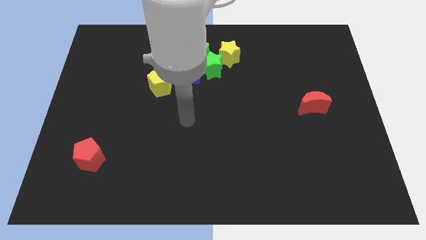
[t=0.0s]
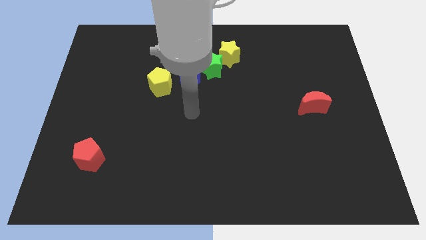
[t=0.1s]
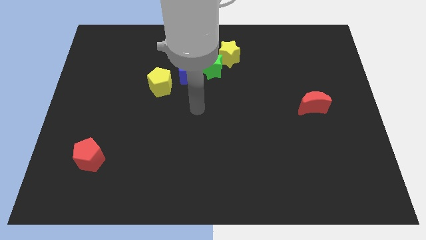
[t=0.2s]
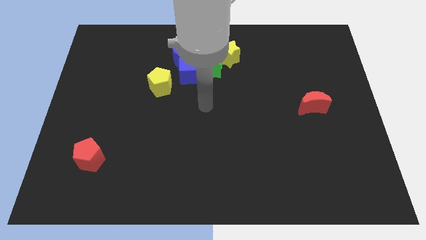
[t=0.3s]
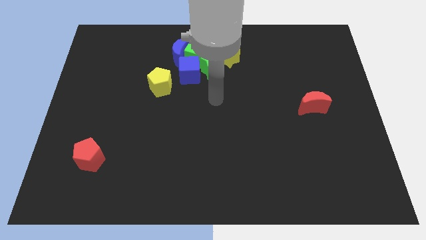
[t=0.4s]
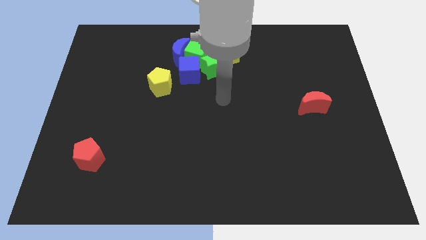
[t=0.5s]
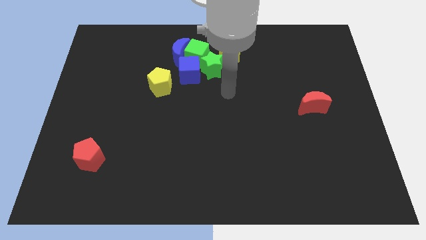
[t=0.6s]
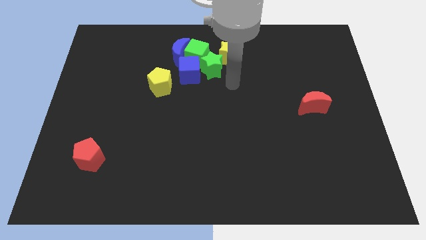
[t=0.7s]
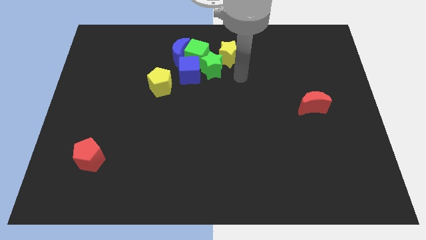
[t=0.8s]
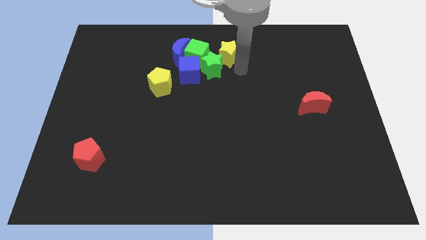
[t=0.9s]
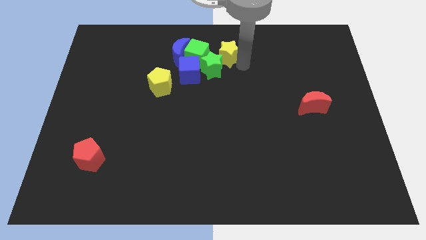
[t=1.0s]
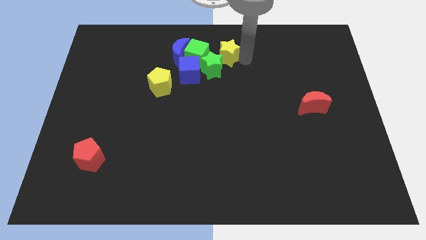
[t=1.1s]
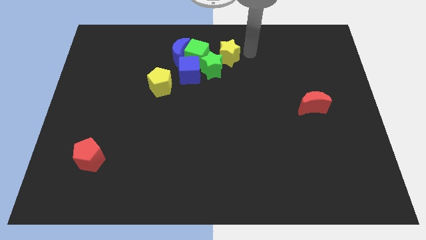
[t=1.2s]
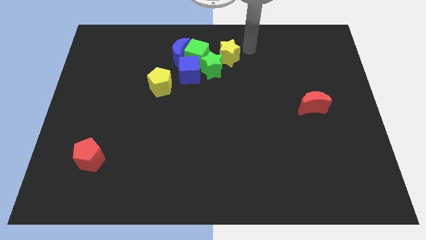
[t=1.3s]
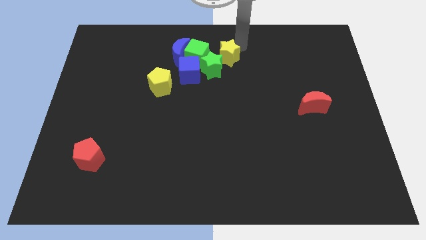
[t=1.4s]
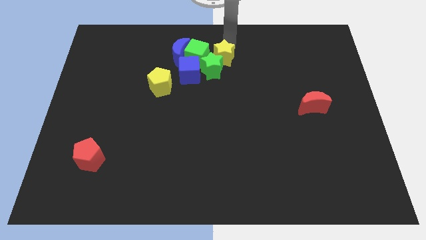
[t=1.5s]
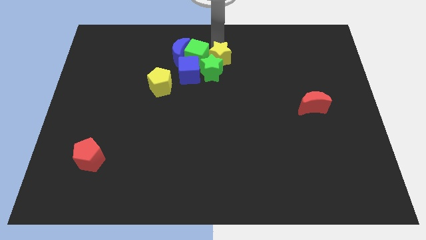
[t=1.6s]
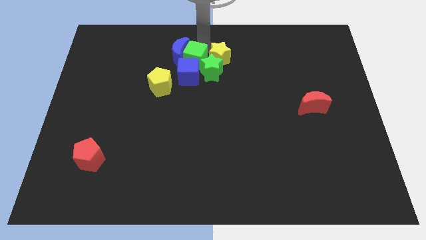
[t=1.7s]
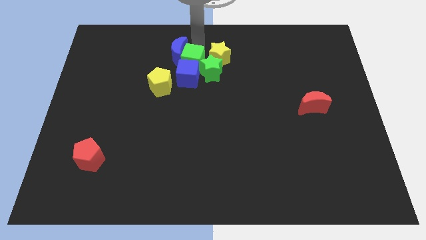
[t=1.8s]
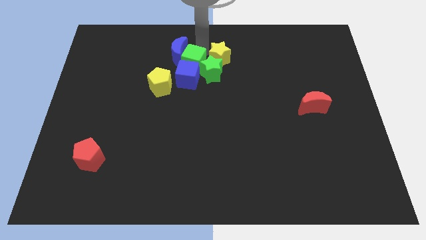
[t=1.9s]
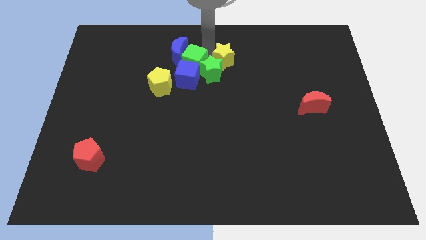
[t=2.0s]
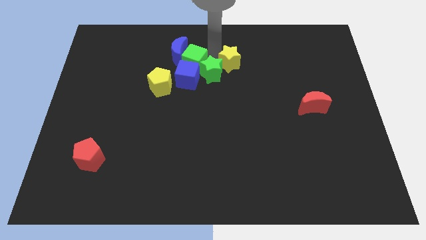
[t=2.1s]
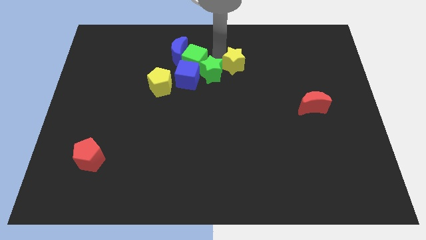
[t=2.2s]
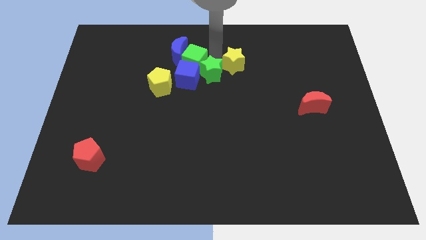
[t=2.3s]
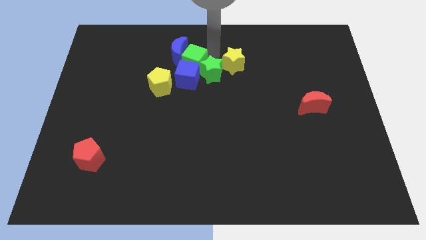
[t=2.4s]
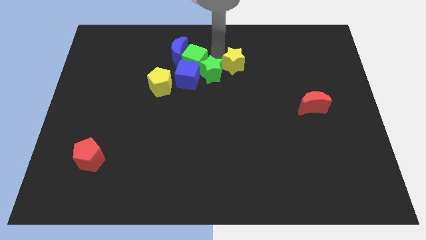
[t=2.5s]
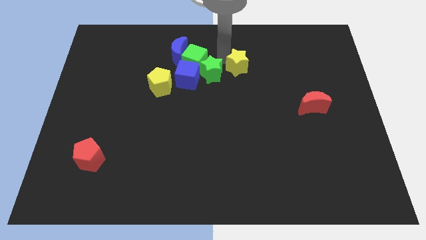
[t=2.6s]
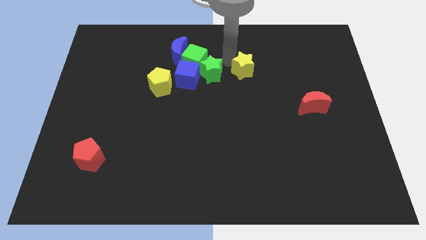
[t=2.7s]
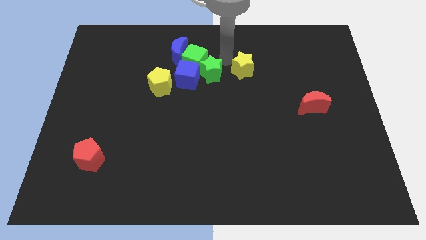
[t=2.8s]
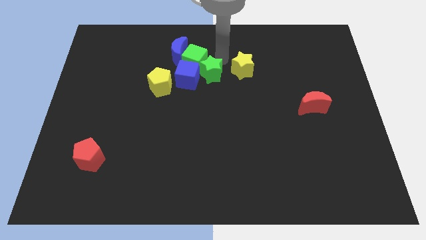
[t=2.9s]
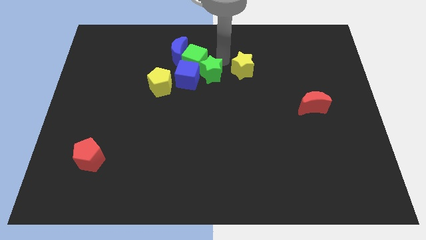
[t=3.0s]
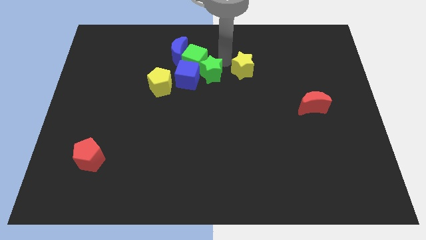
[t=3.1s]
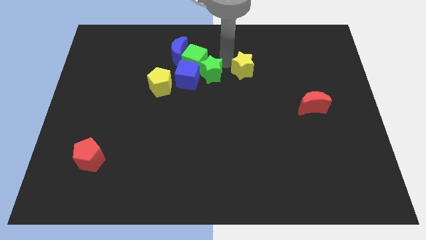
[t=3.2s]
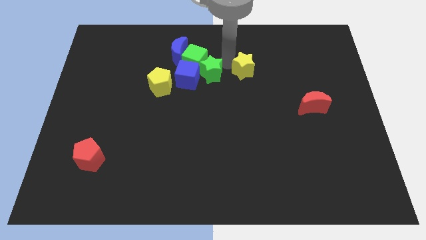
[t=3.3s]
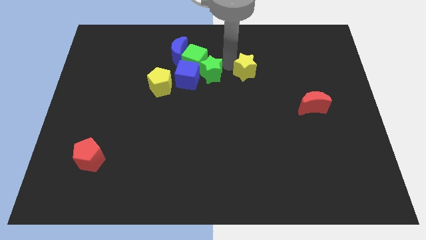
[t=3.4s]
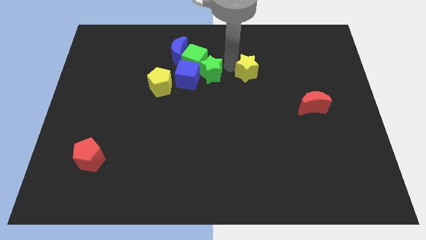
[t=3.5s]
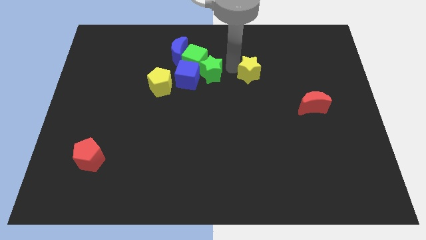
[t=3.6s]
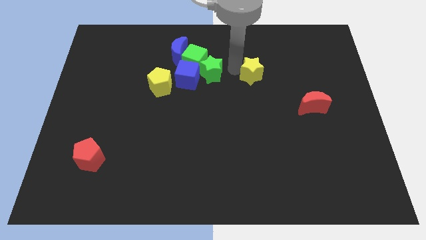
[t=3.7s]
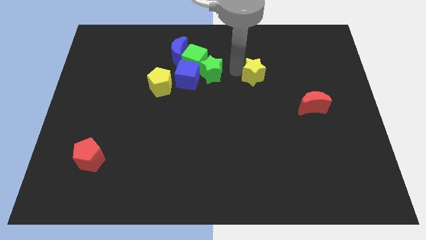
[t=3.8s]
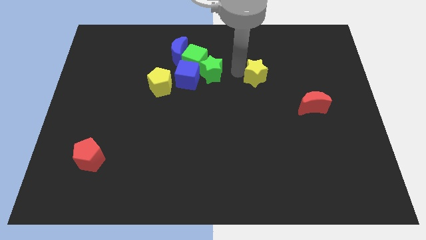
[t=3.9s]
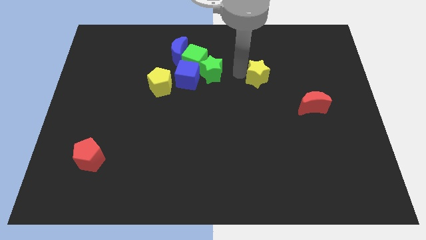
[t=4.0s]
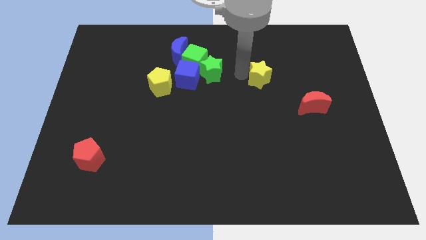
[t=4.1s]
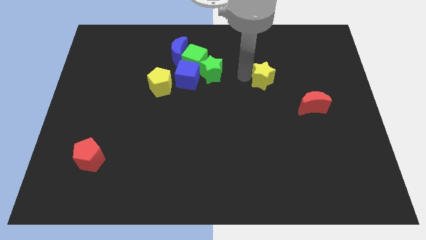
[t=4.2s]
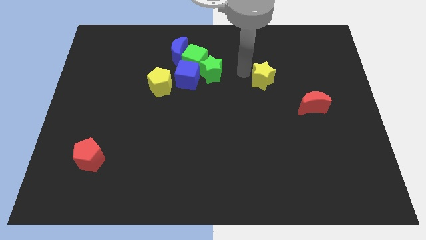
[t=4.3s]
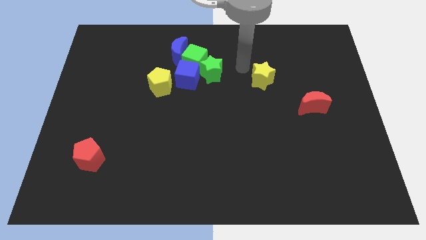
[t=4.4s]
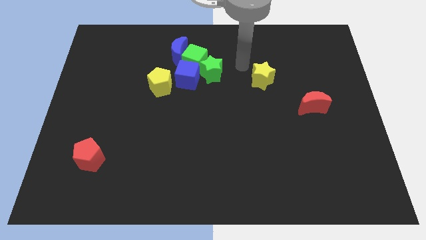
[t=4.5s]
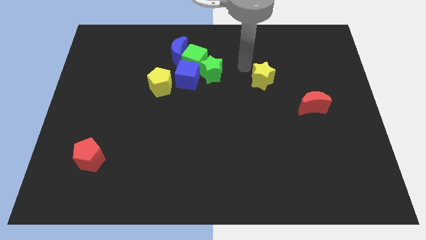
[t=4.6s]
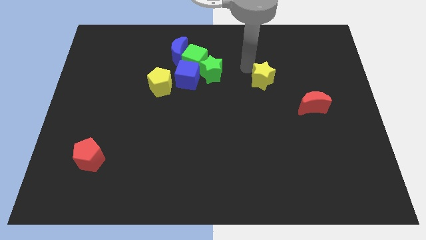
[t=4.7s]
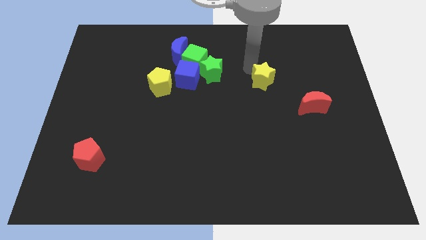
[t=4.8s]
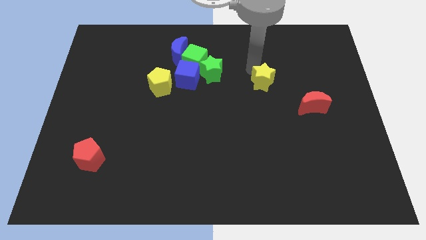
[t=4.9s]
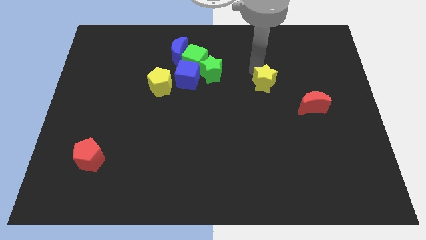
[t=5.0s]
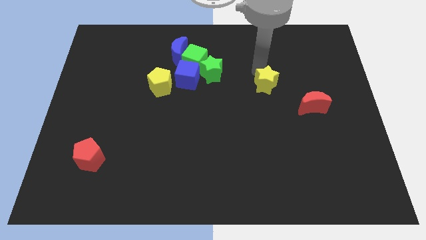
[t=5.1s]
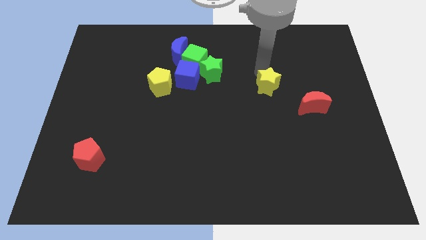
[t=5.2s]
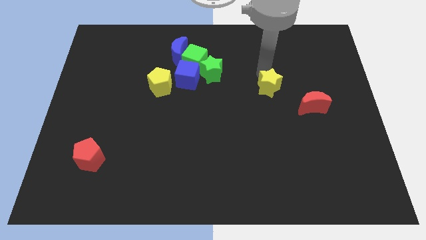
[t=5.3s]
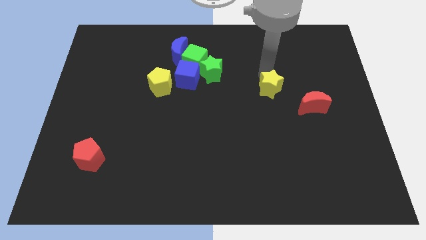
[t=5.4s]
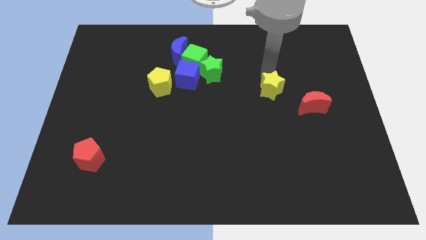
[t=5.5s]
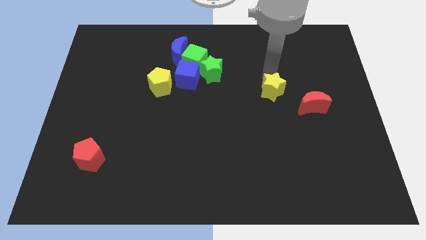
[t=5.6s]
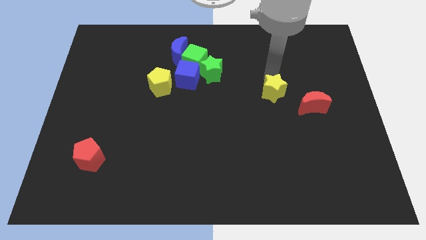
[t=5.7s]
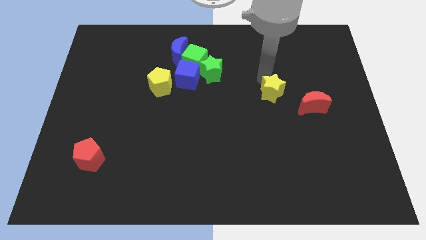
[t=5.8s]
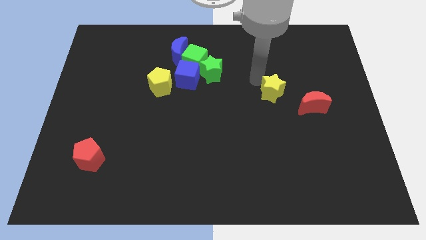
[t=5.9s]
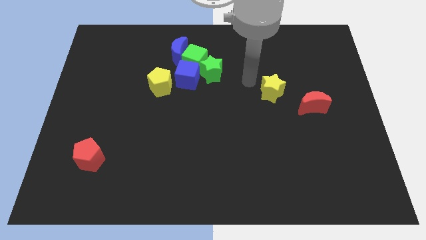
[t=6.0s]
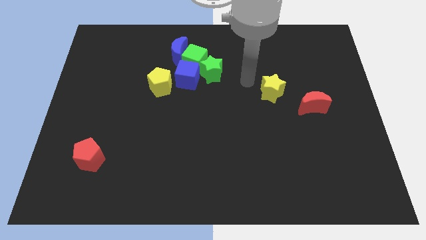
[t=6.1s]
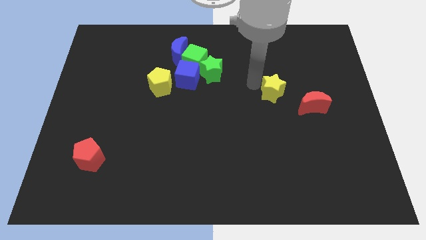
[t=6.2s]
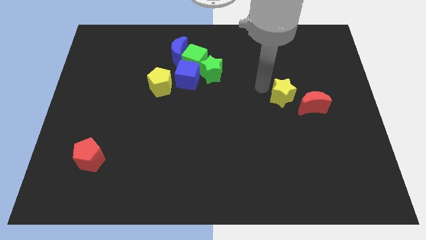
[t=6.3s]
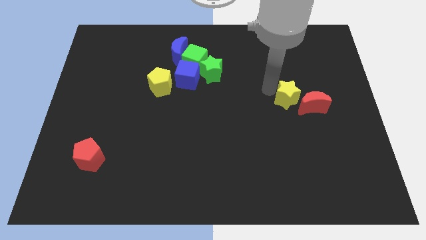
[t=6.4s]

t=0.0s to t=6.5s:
move the yellow star towards the red moon

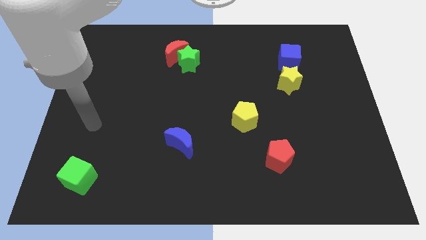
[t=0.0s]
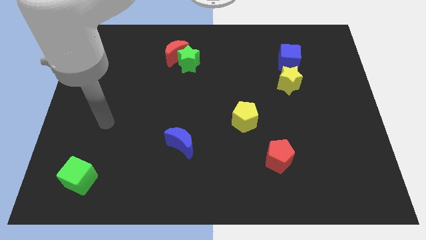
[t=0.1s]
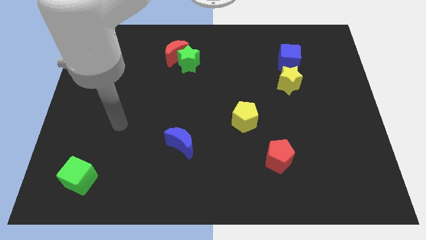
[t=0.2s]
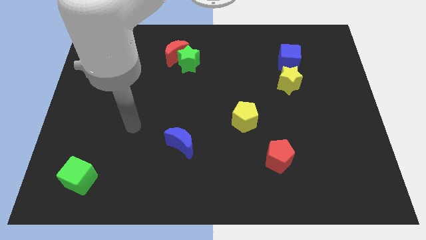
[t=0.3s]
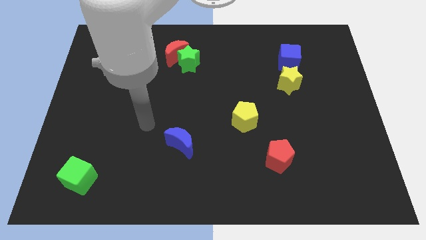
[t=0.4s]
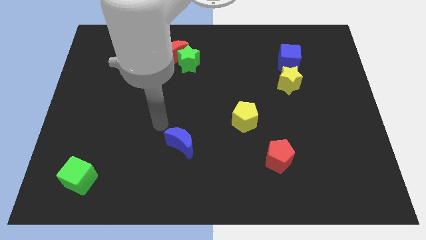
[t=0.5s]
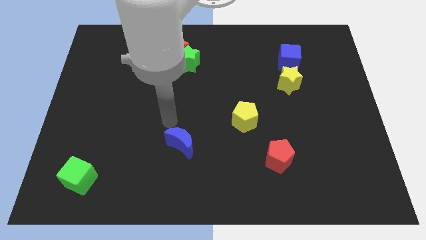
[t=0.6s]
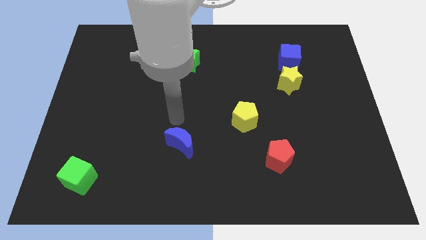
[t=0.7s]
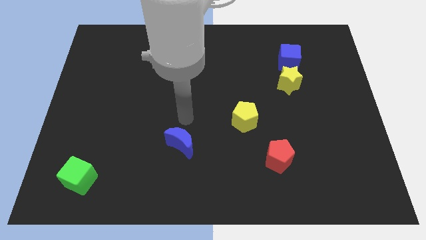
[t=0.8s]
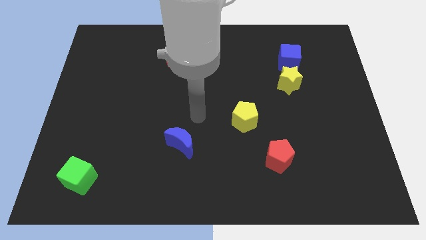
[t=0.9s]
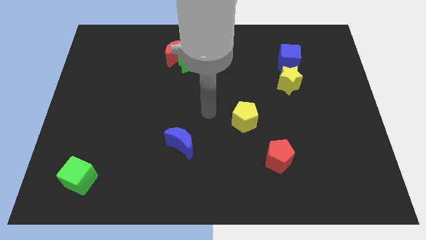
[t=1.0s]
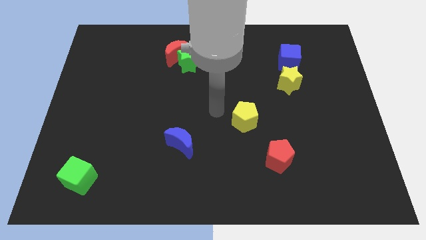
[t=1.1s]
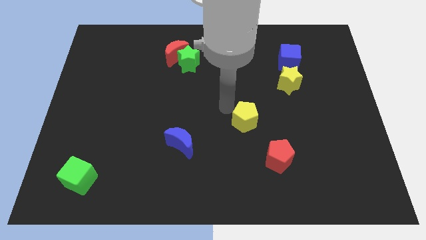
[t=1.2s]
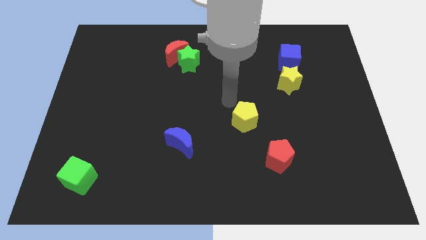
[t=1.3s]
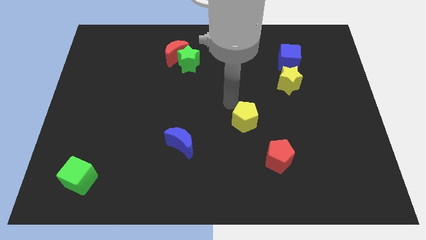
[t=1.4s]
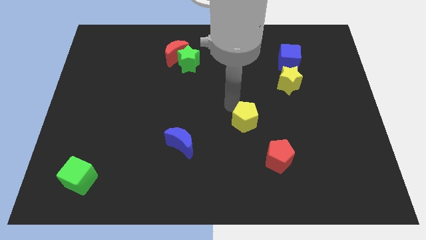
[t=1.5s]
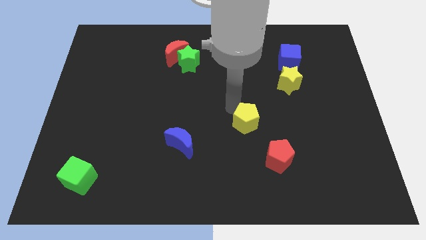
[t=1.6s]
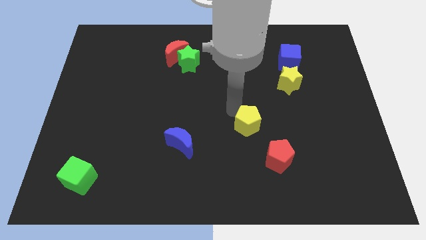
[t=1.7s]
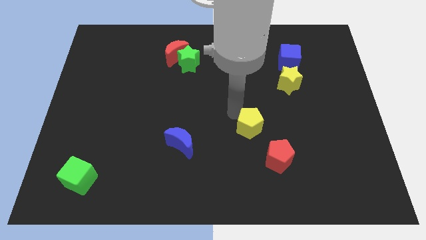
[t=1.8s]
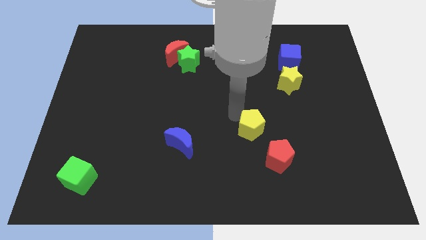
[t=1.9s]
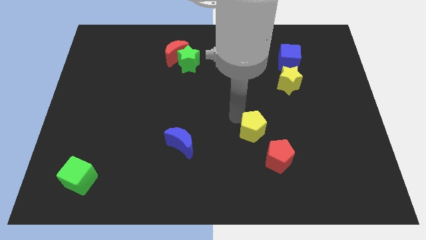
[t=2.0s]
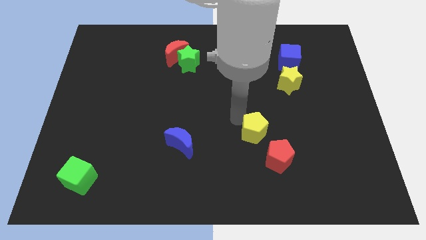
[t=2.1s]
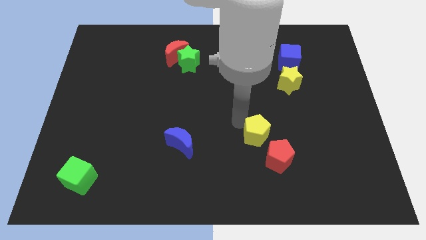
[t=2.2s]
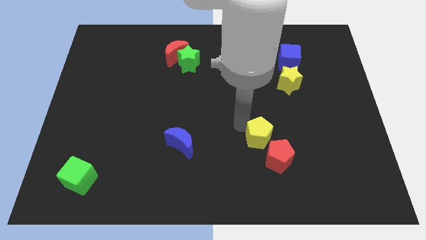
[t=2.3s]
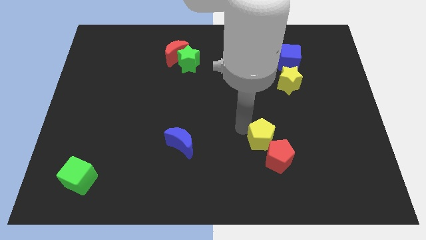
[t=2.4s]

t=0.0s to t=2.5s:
push the yellow pentagon close to the red pentagon
